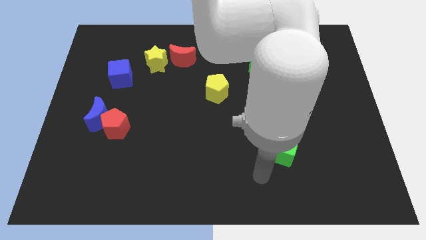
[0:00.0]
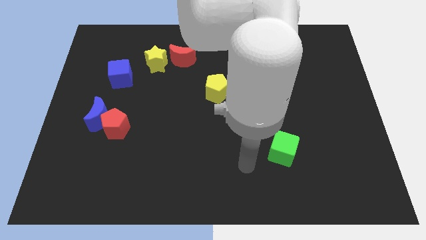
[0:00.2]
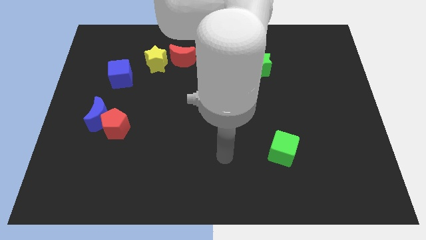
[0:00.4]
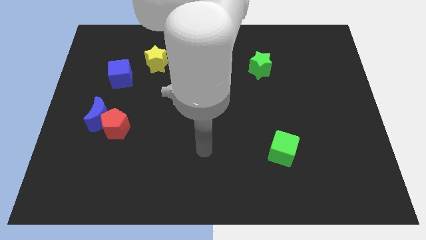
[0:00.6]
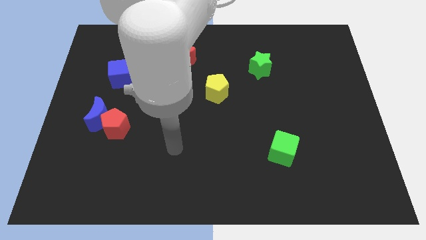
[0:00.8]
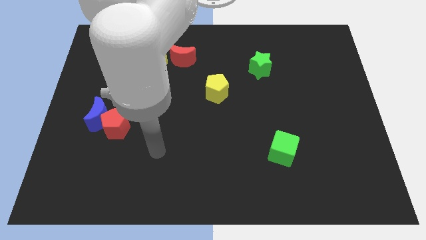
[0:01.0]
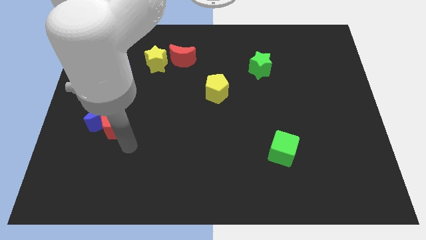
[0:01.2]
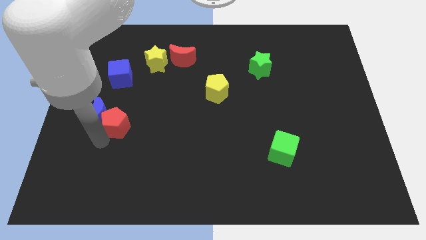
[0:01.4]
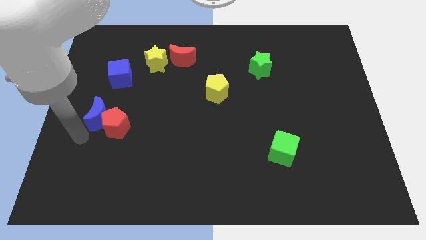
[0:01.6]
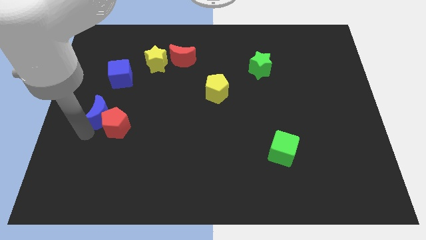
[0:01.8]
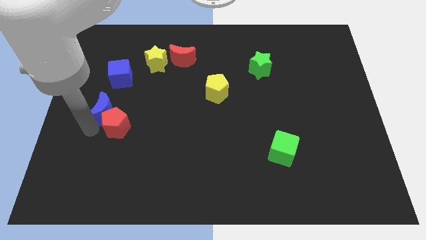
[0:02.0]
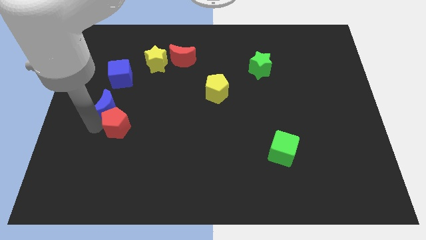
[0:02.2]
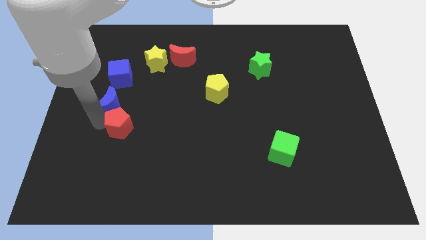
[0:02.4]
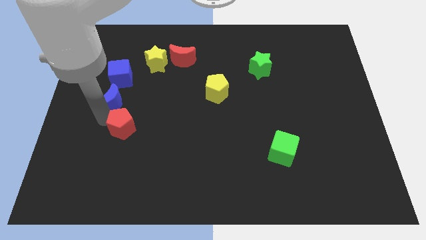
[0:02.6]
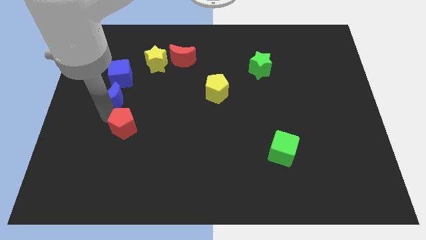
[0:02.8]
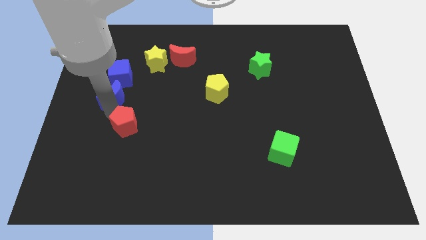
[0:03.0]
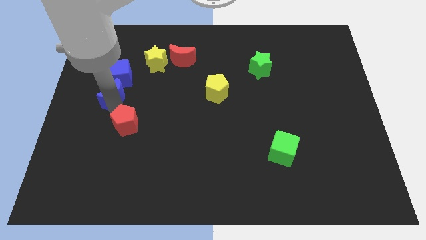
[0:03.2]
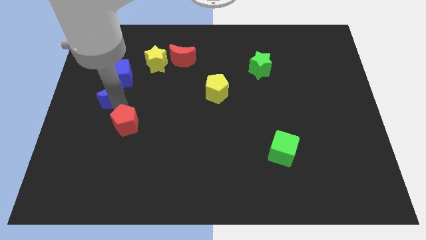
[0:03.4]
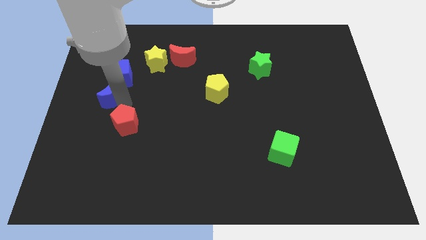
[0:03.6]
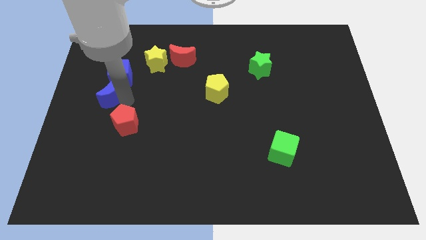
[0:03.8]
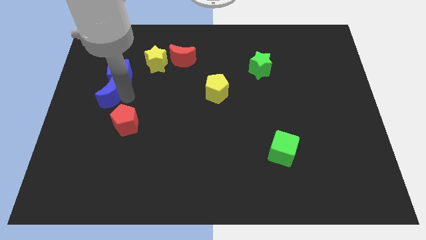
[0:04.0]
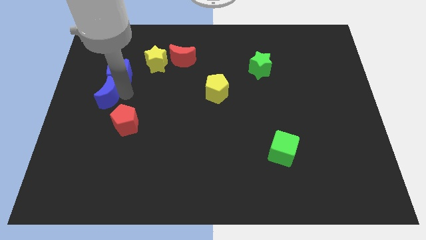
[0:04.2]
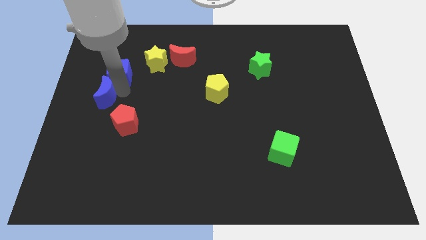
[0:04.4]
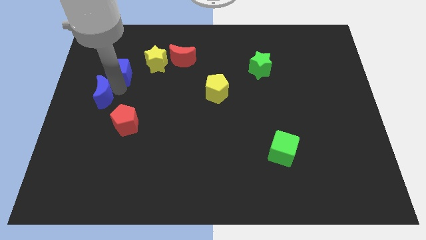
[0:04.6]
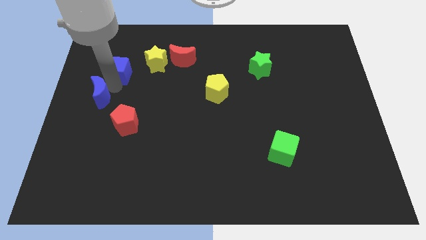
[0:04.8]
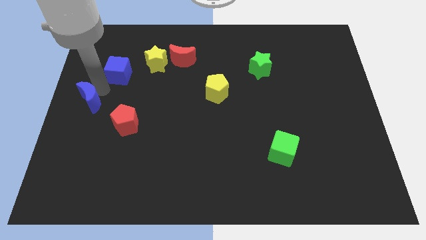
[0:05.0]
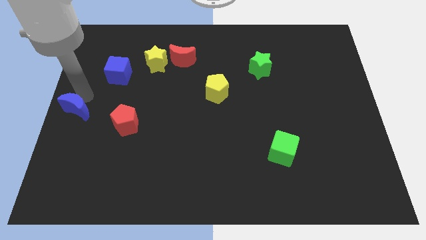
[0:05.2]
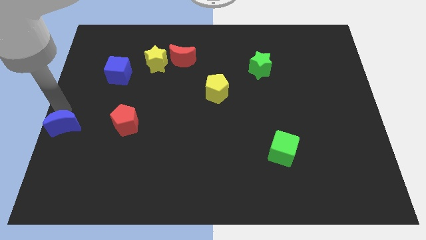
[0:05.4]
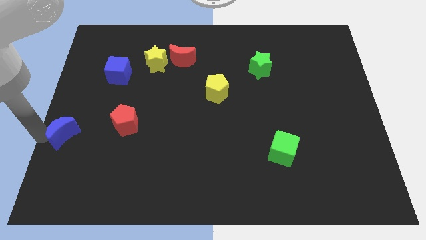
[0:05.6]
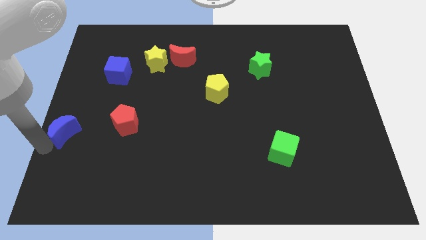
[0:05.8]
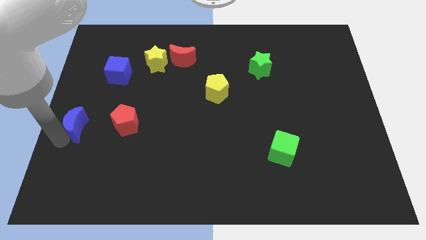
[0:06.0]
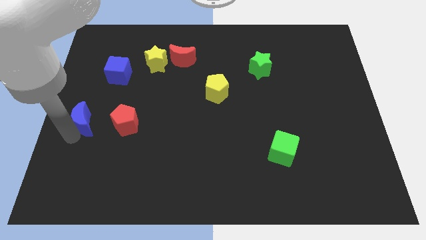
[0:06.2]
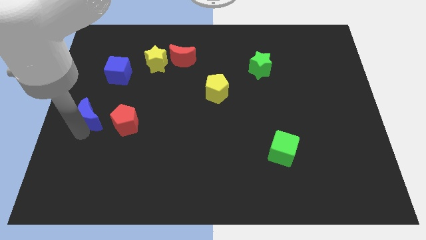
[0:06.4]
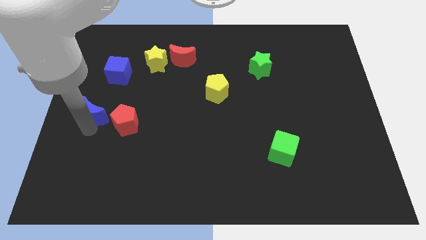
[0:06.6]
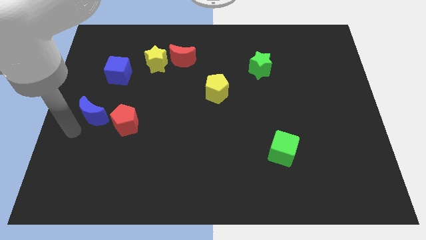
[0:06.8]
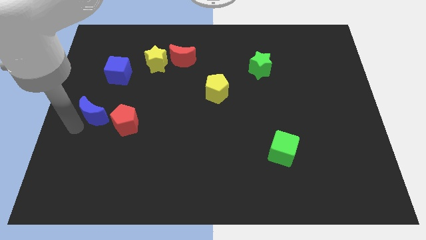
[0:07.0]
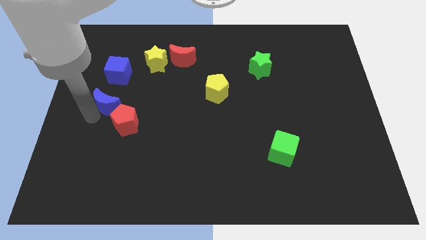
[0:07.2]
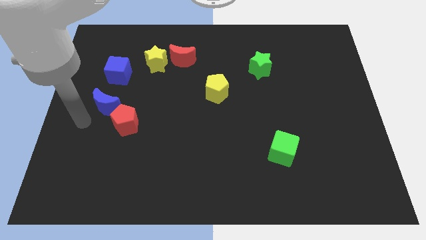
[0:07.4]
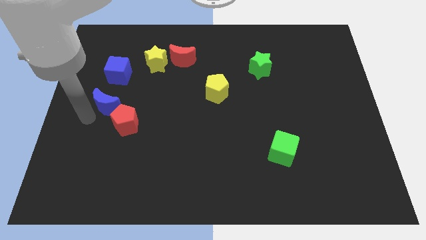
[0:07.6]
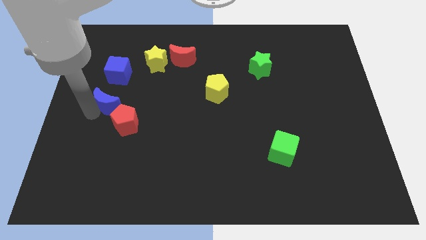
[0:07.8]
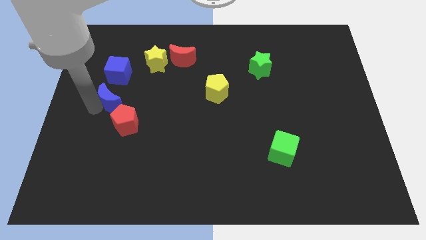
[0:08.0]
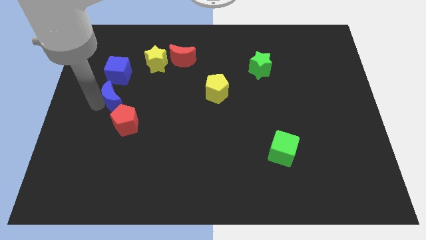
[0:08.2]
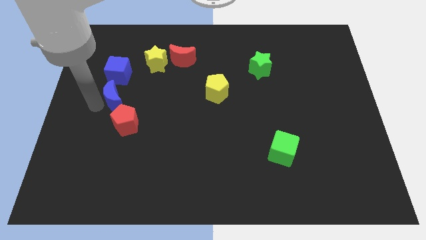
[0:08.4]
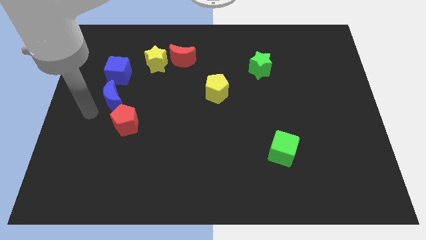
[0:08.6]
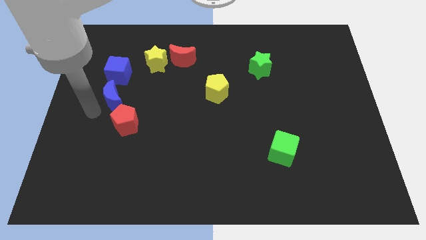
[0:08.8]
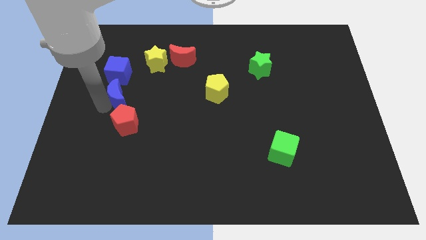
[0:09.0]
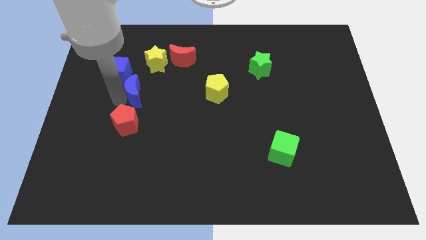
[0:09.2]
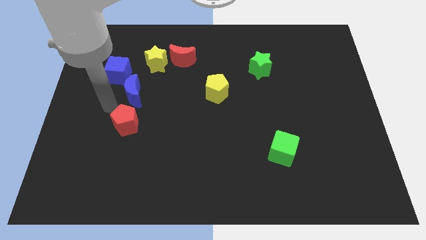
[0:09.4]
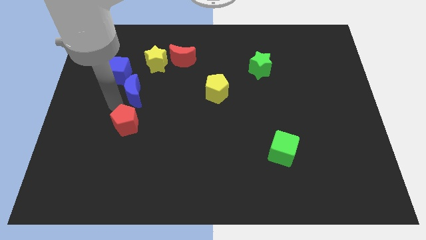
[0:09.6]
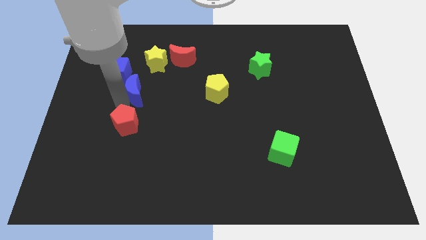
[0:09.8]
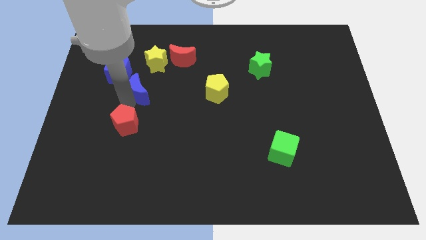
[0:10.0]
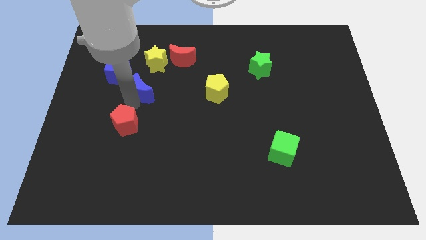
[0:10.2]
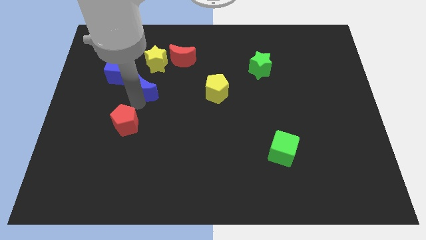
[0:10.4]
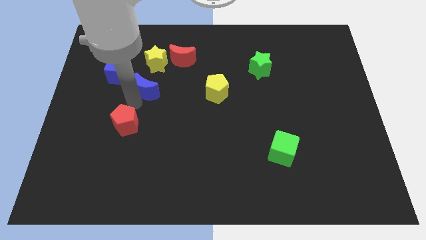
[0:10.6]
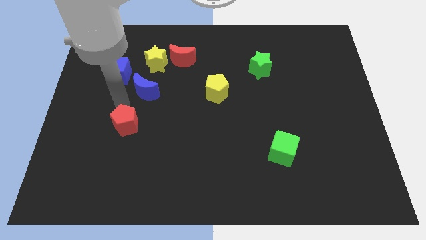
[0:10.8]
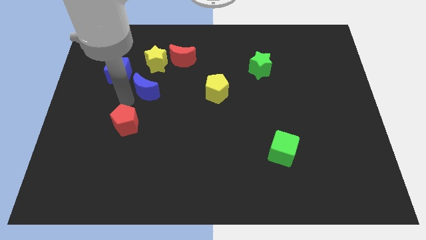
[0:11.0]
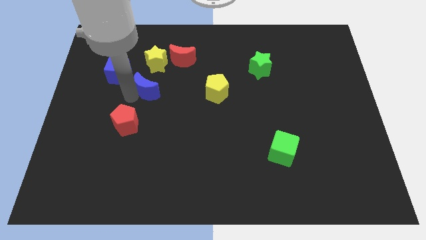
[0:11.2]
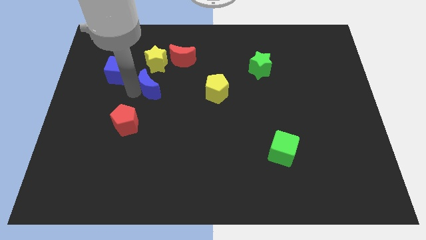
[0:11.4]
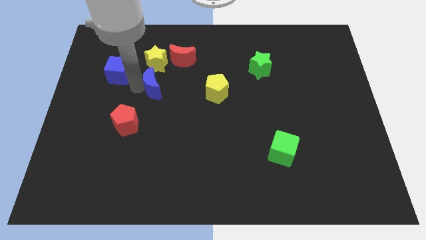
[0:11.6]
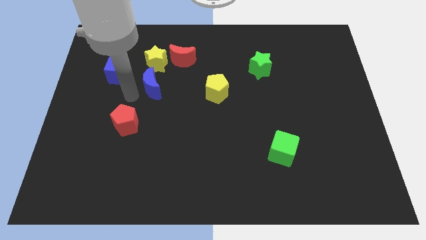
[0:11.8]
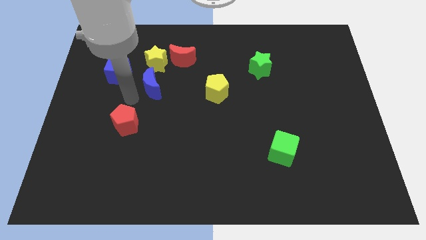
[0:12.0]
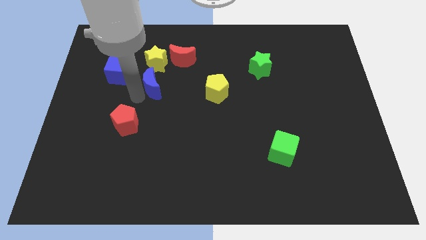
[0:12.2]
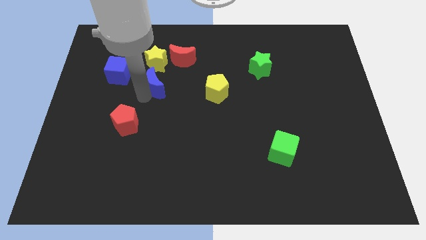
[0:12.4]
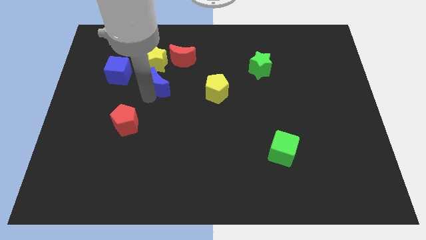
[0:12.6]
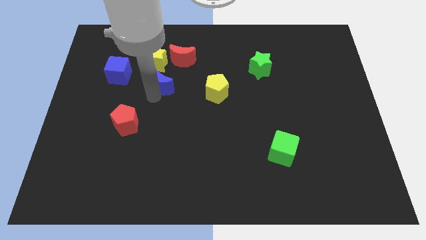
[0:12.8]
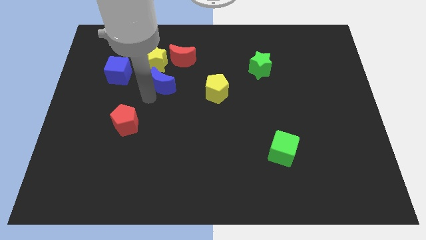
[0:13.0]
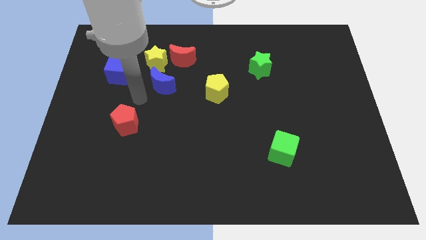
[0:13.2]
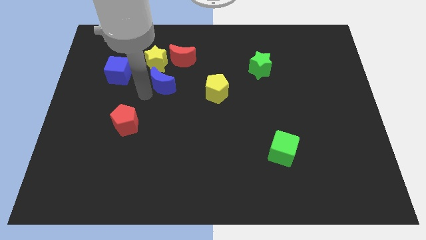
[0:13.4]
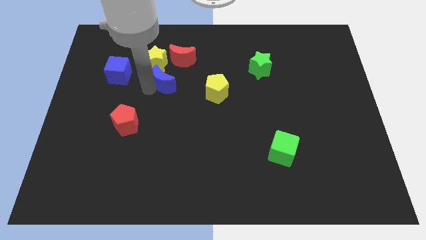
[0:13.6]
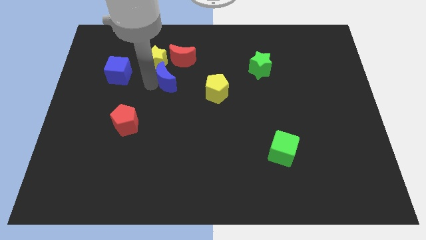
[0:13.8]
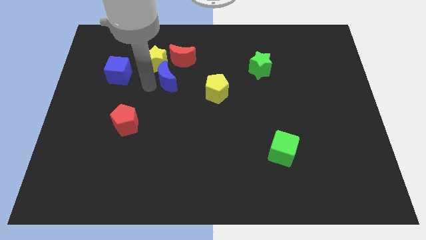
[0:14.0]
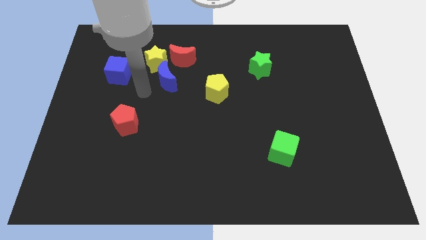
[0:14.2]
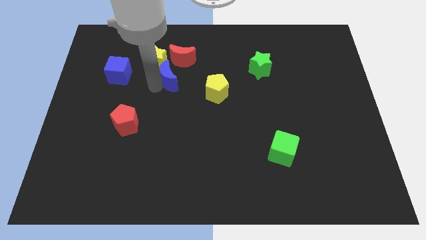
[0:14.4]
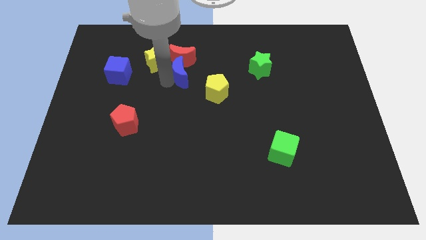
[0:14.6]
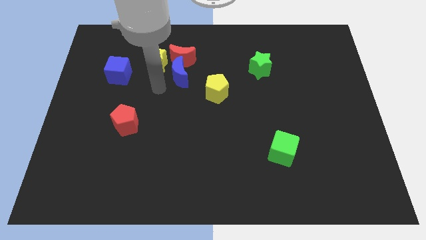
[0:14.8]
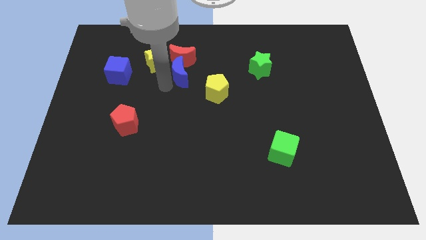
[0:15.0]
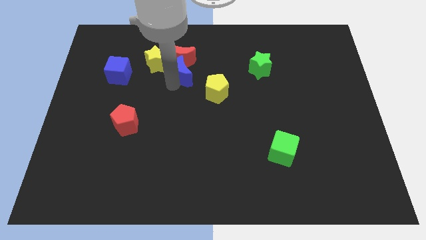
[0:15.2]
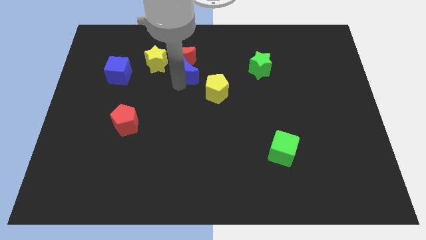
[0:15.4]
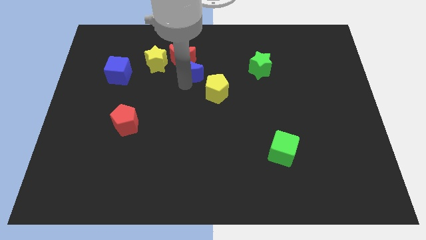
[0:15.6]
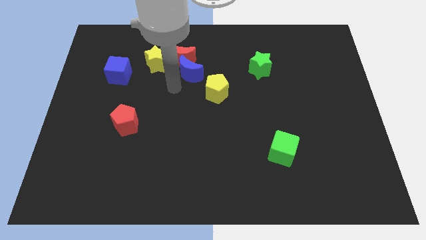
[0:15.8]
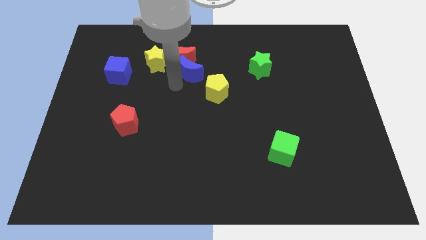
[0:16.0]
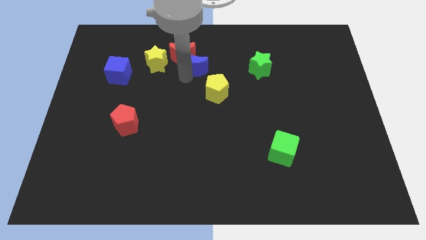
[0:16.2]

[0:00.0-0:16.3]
put the blue moon just right of the red moon
